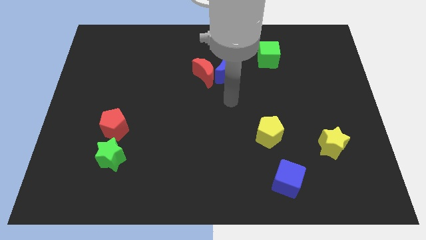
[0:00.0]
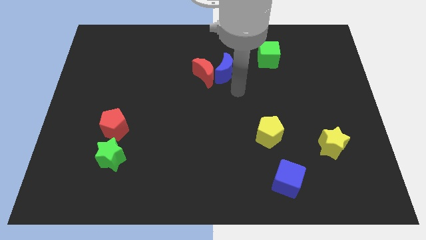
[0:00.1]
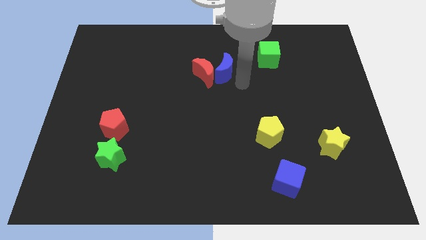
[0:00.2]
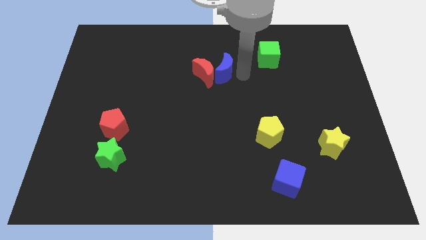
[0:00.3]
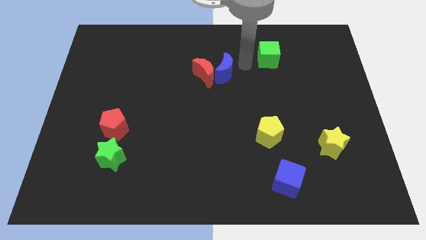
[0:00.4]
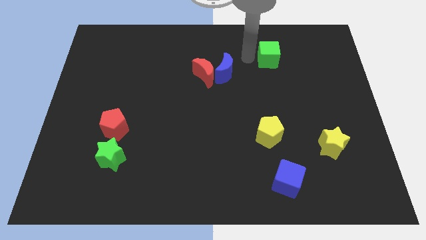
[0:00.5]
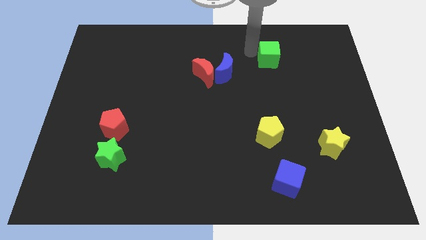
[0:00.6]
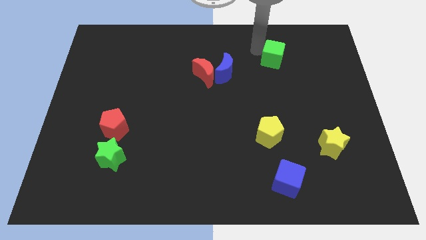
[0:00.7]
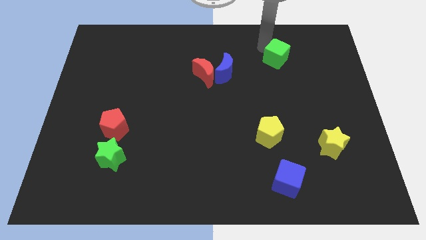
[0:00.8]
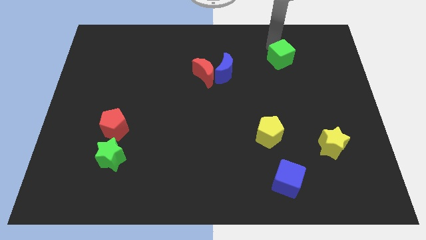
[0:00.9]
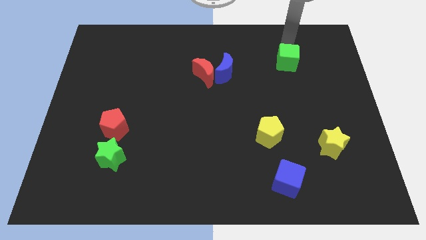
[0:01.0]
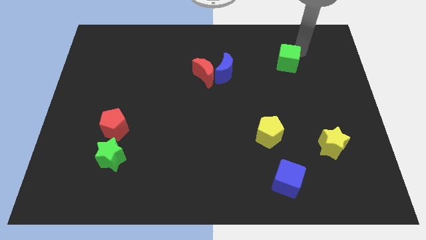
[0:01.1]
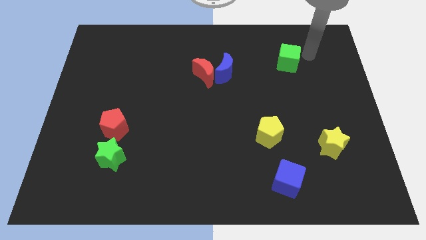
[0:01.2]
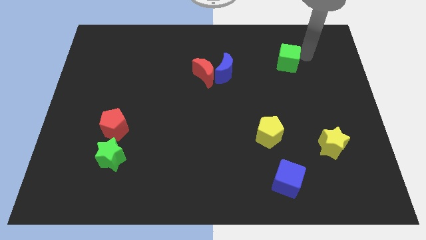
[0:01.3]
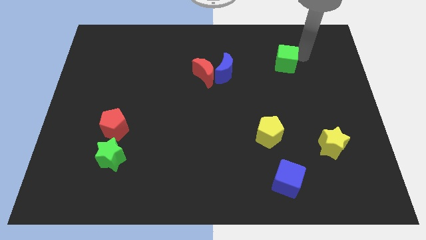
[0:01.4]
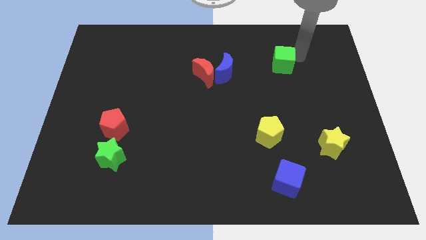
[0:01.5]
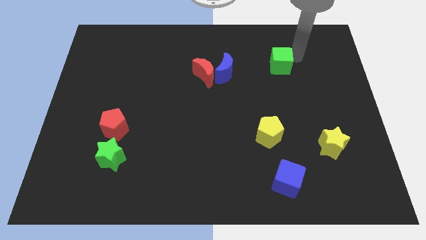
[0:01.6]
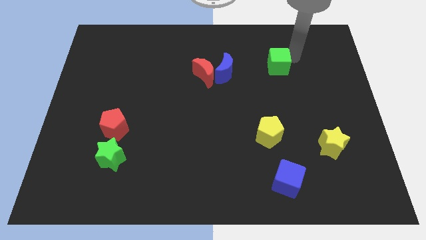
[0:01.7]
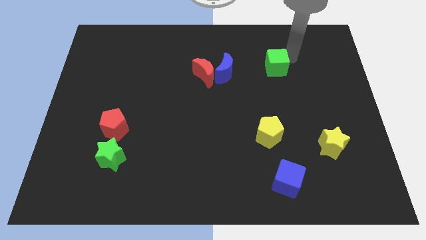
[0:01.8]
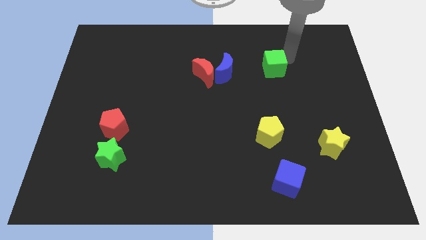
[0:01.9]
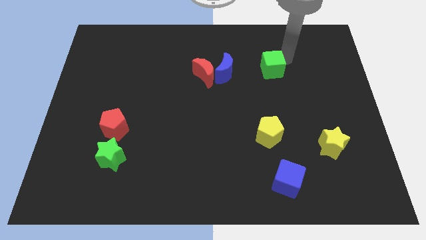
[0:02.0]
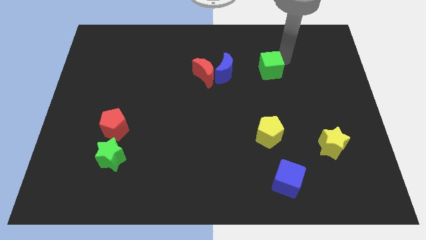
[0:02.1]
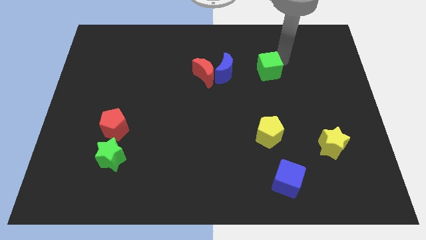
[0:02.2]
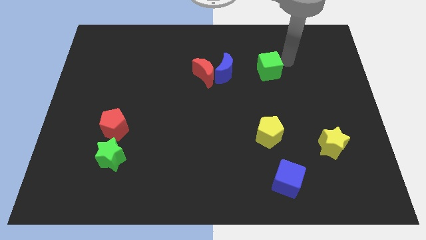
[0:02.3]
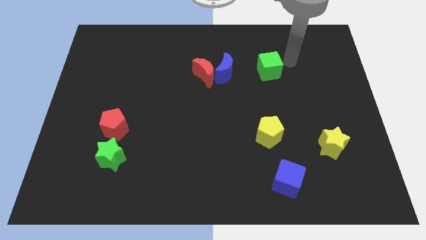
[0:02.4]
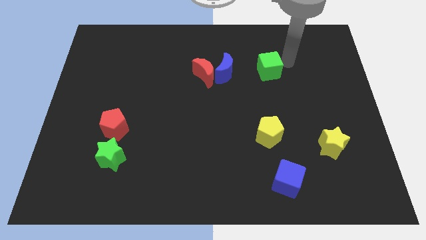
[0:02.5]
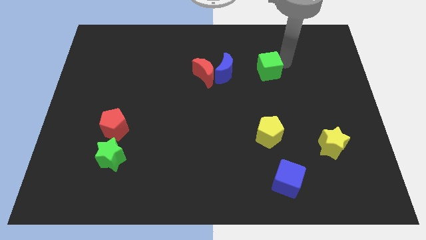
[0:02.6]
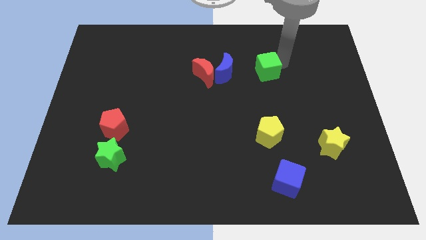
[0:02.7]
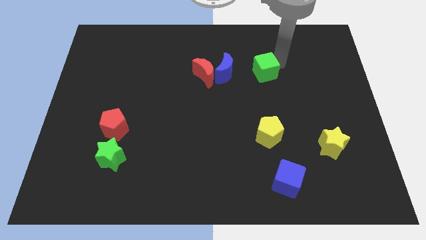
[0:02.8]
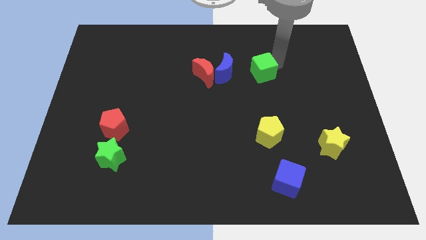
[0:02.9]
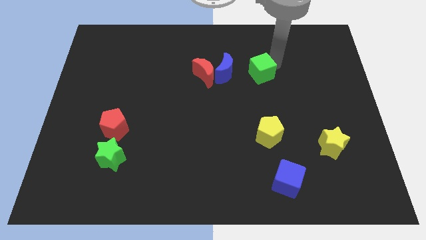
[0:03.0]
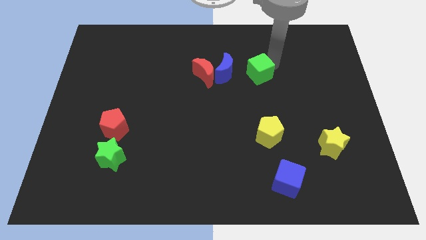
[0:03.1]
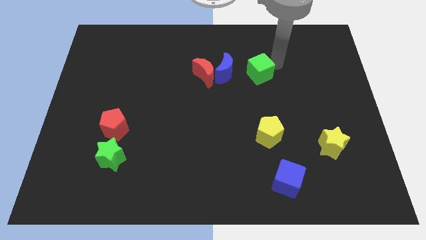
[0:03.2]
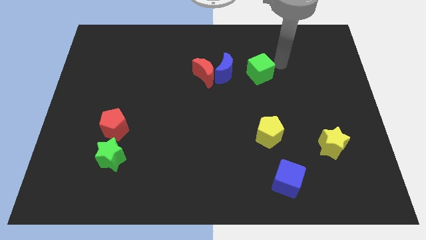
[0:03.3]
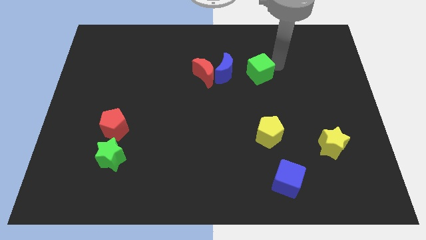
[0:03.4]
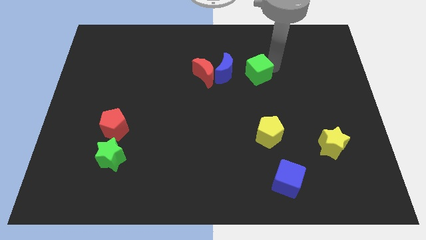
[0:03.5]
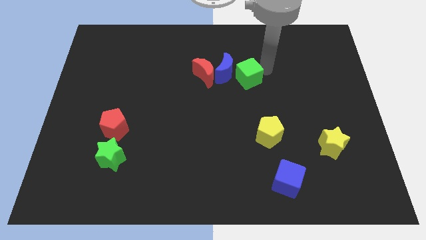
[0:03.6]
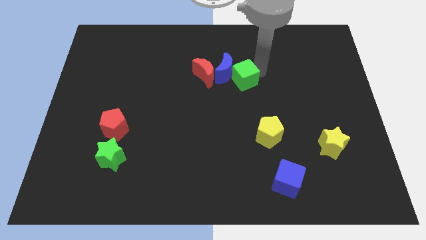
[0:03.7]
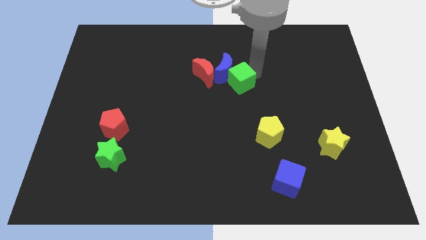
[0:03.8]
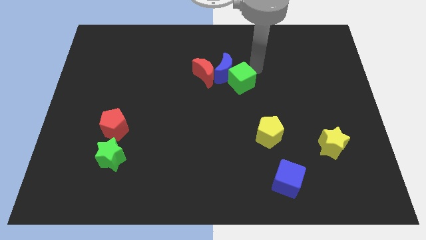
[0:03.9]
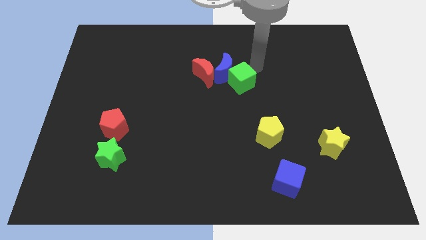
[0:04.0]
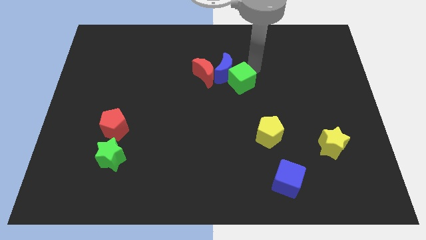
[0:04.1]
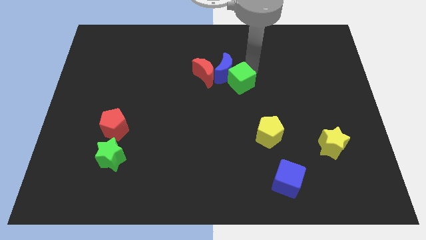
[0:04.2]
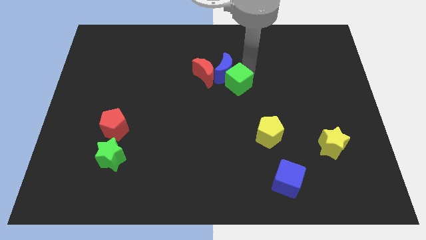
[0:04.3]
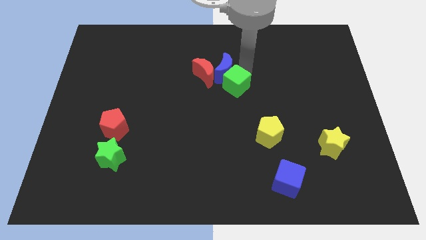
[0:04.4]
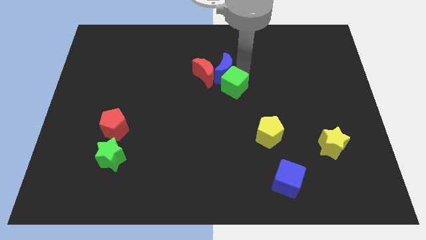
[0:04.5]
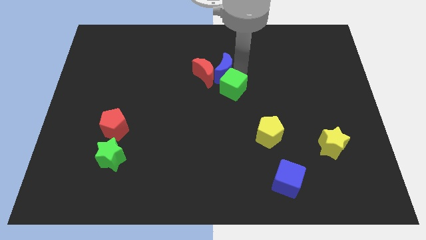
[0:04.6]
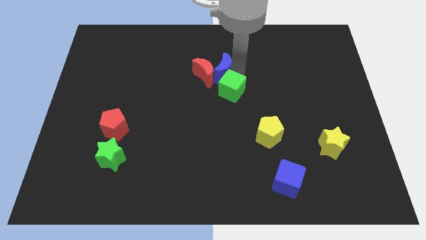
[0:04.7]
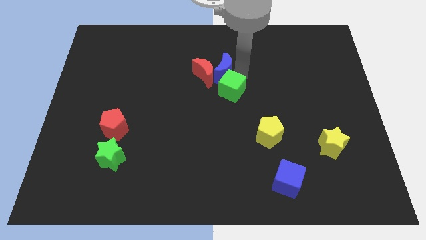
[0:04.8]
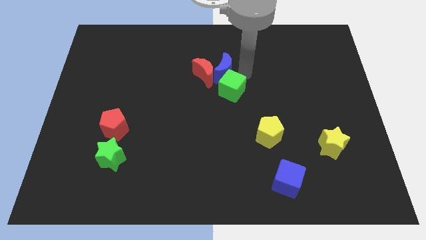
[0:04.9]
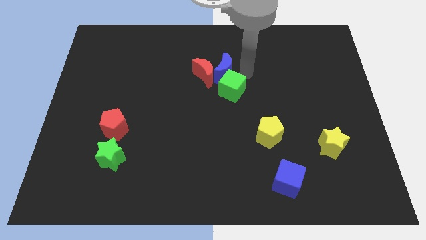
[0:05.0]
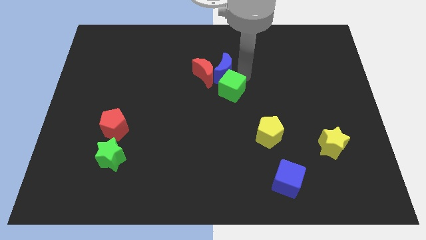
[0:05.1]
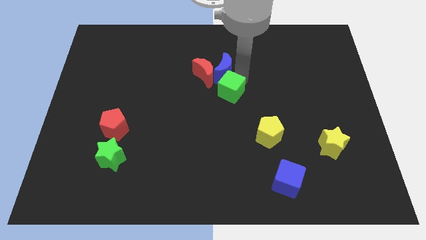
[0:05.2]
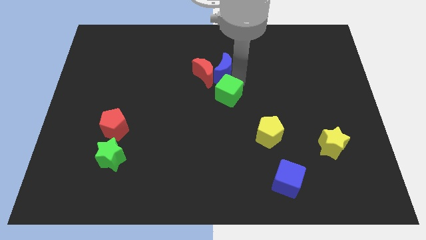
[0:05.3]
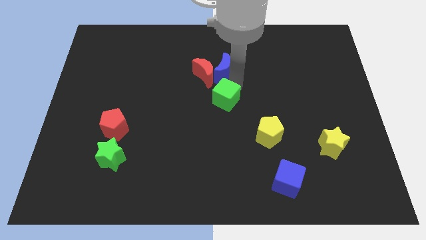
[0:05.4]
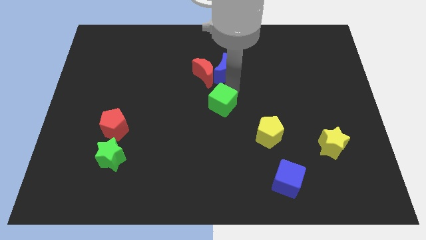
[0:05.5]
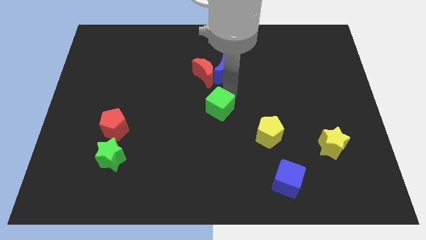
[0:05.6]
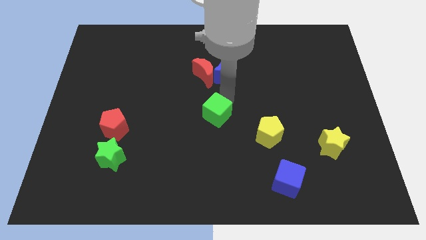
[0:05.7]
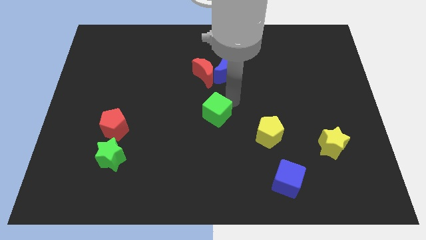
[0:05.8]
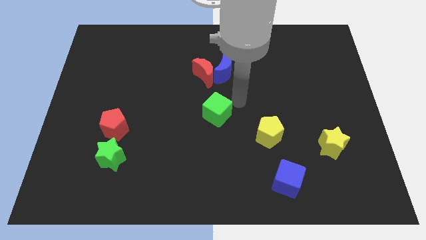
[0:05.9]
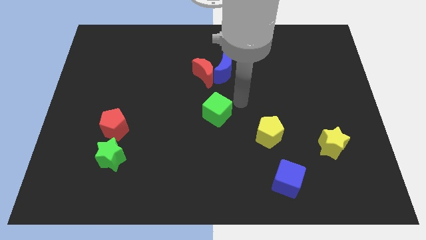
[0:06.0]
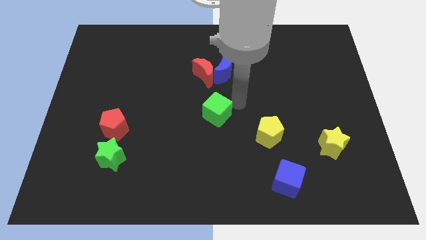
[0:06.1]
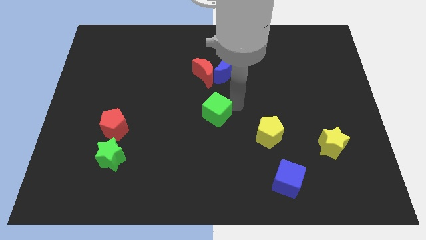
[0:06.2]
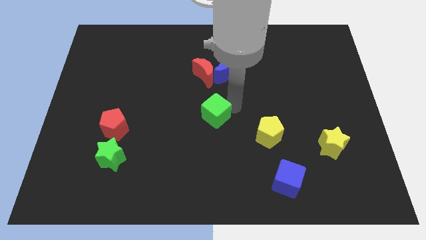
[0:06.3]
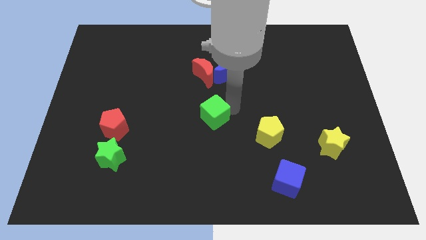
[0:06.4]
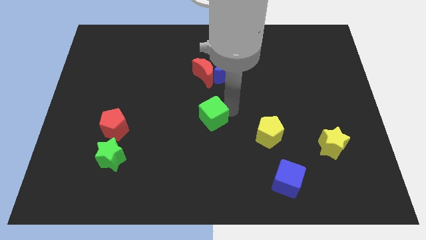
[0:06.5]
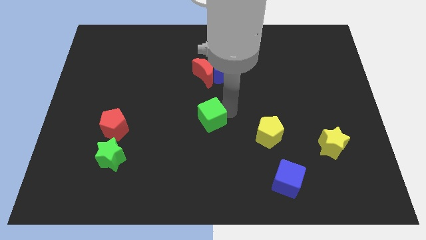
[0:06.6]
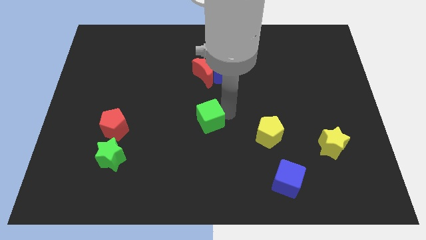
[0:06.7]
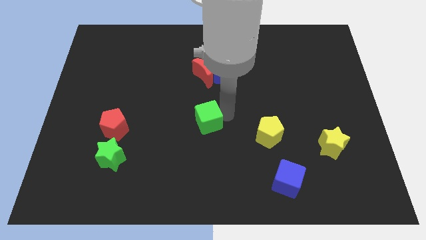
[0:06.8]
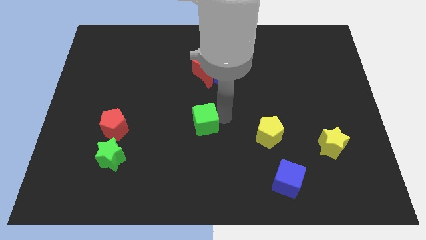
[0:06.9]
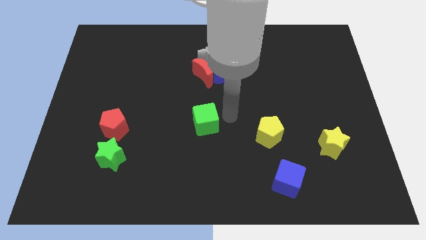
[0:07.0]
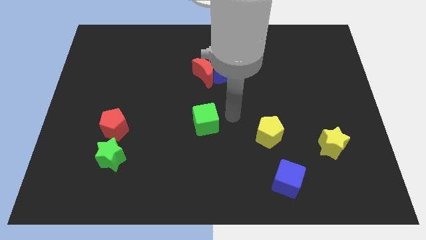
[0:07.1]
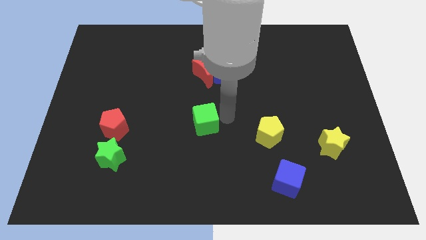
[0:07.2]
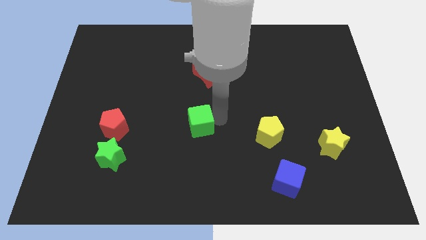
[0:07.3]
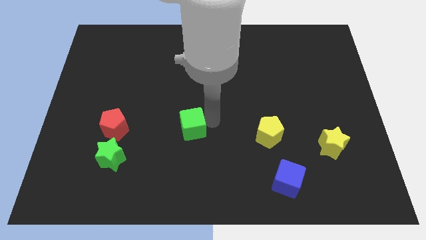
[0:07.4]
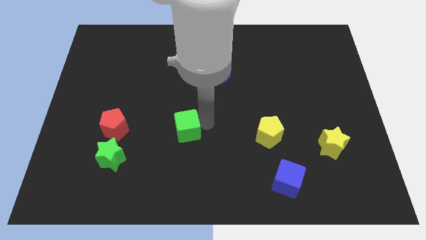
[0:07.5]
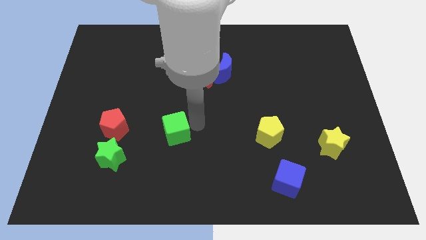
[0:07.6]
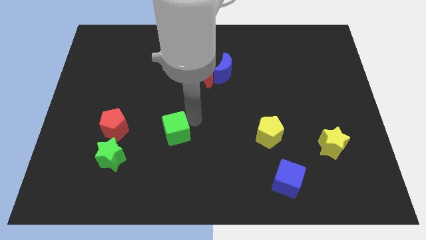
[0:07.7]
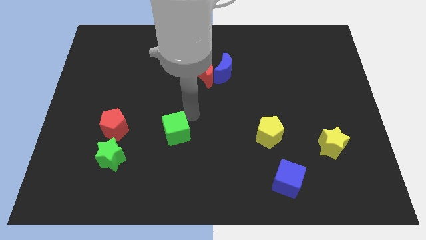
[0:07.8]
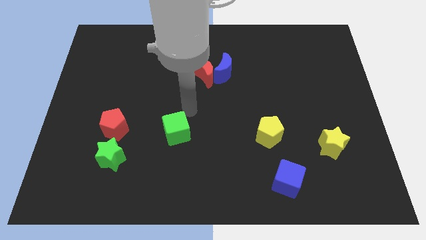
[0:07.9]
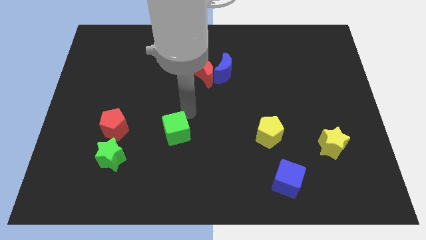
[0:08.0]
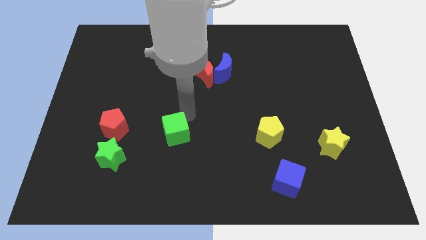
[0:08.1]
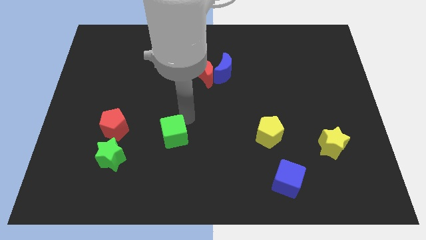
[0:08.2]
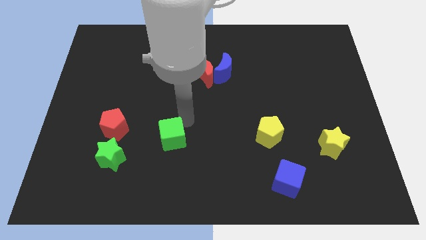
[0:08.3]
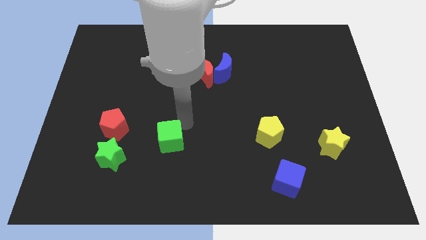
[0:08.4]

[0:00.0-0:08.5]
move the green cube just right of the green star
